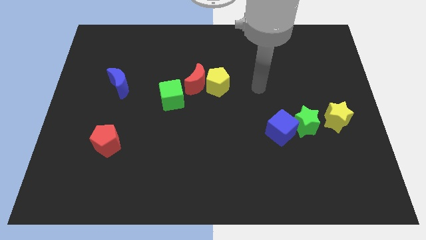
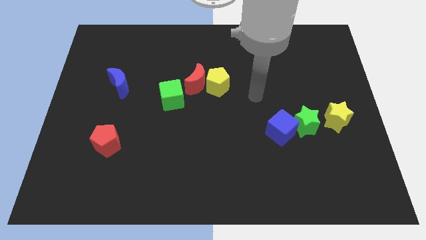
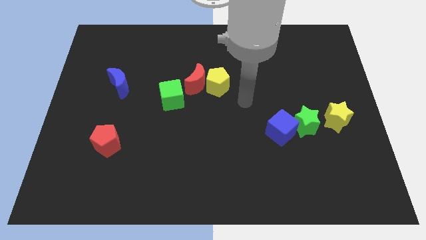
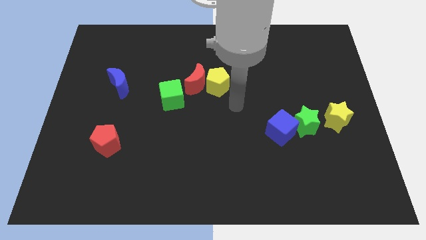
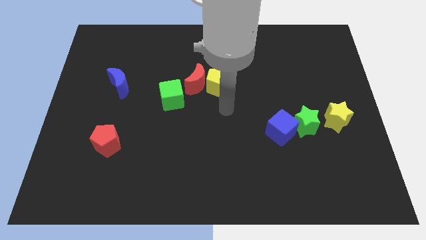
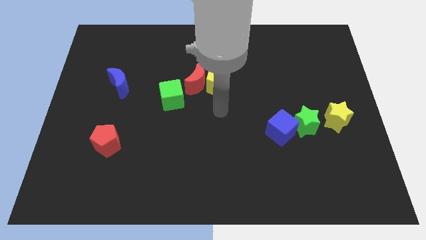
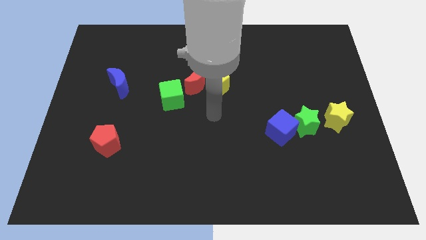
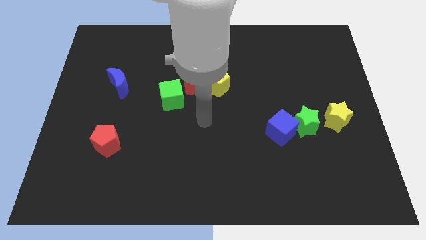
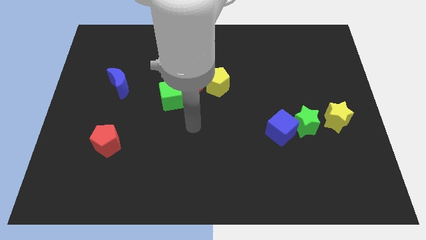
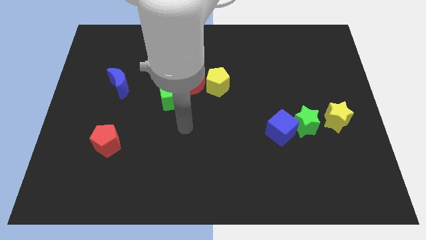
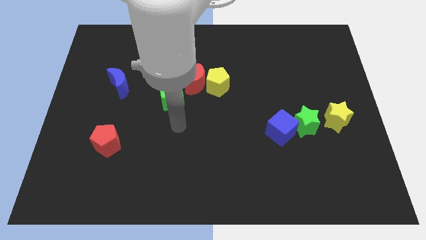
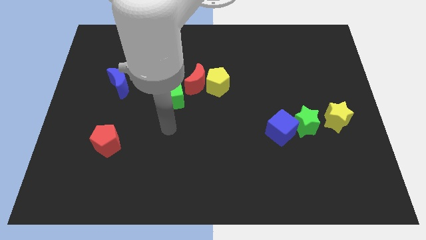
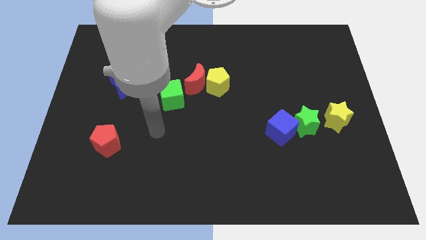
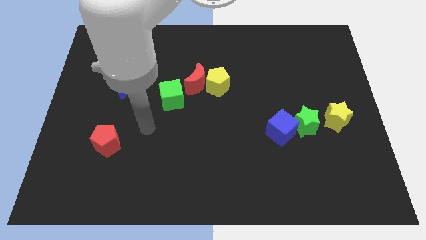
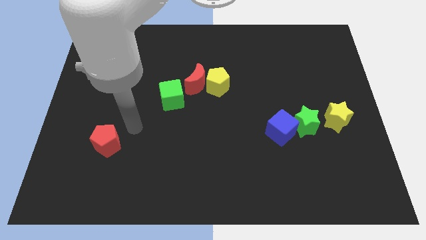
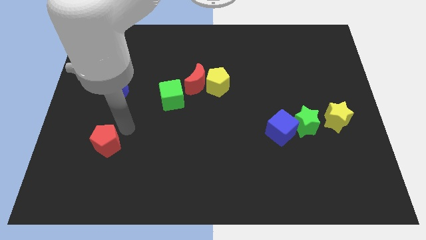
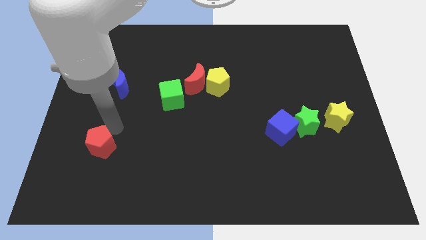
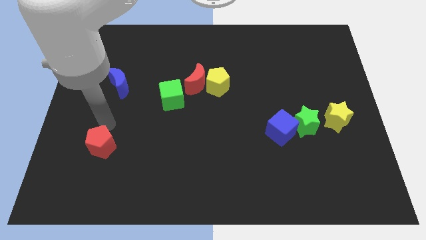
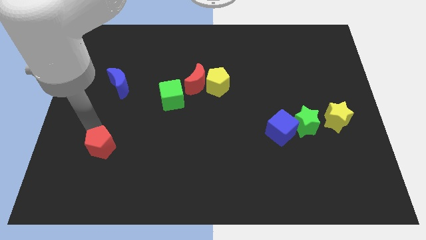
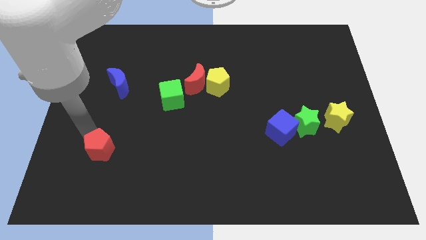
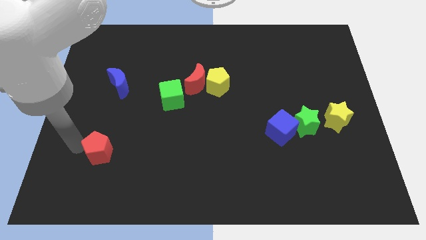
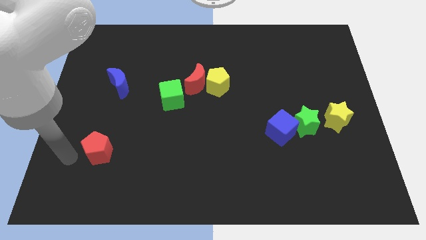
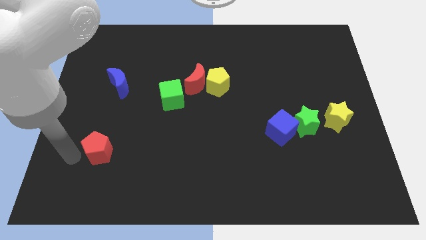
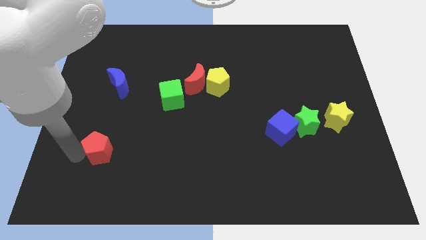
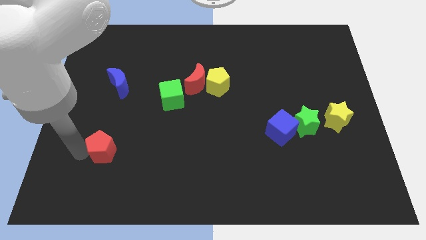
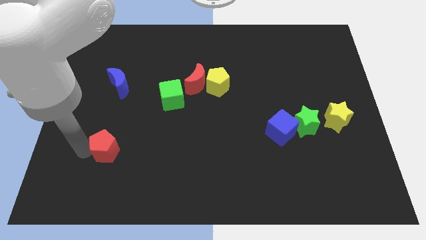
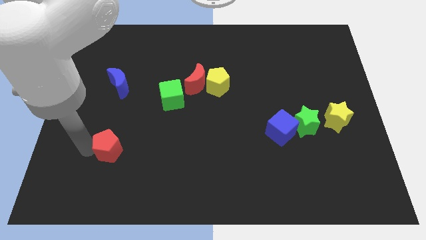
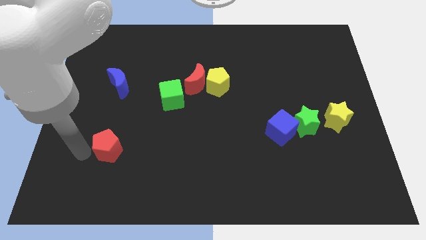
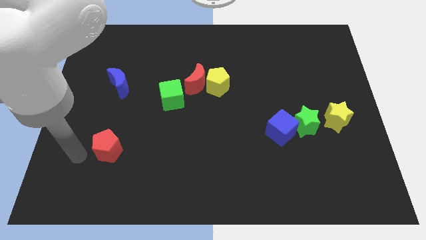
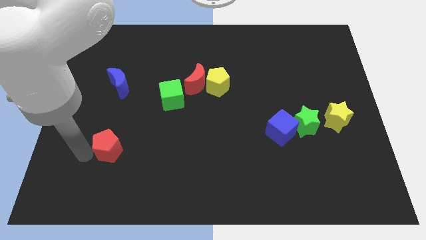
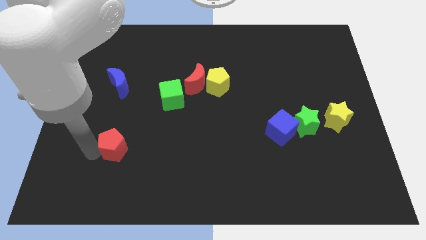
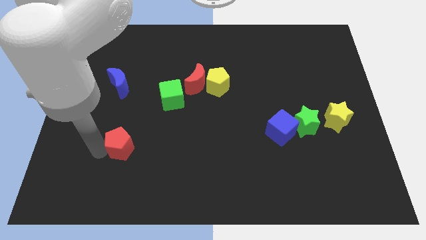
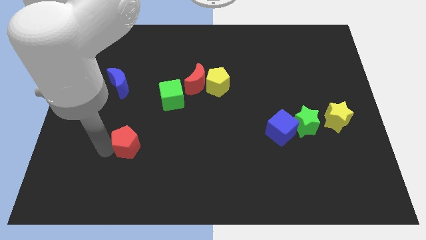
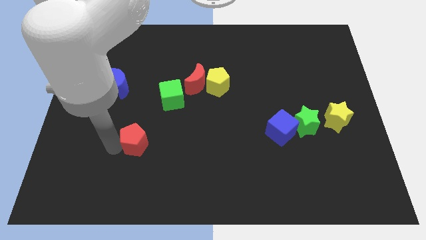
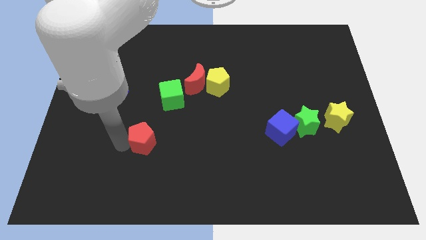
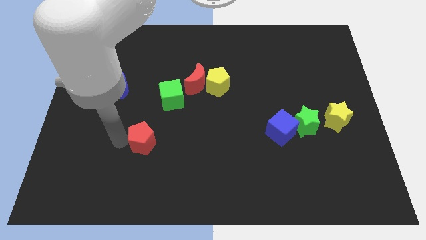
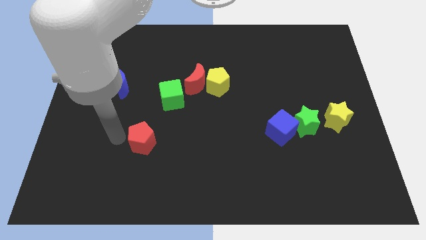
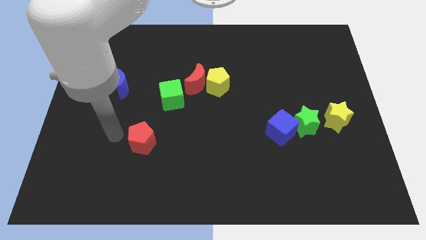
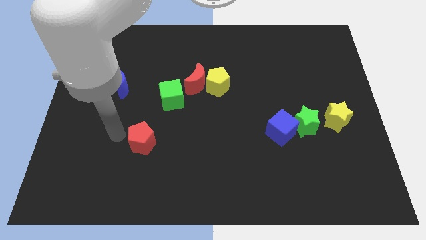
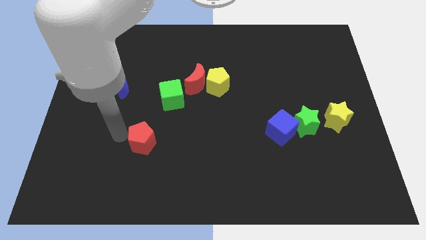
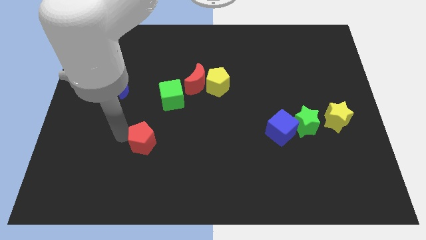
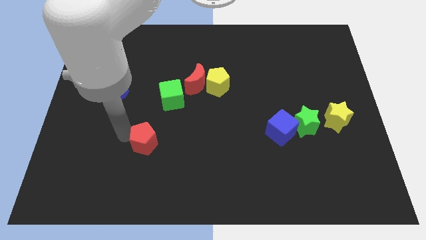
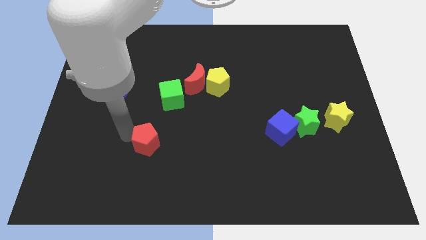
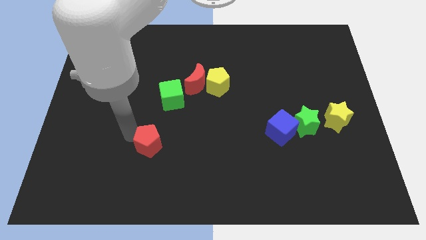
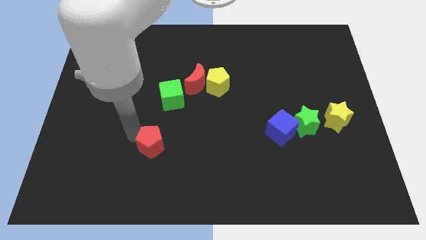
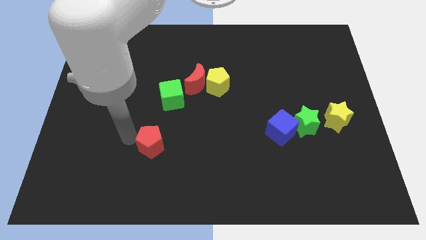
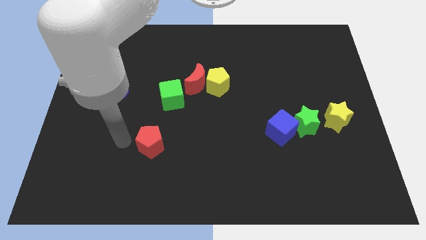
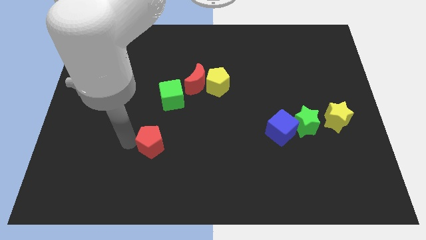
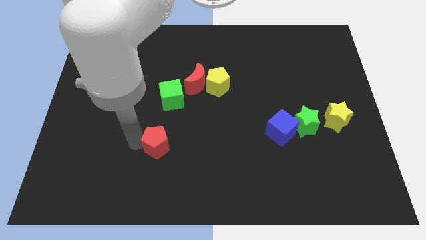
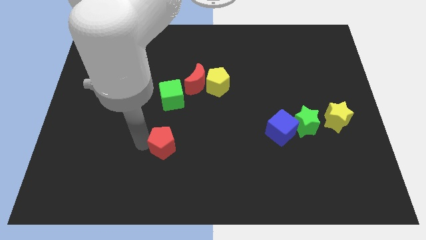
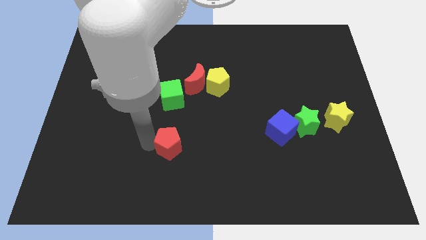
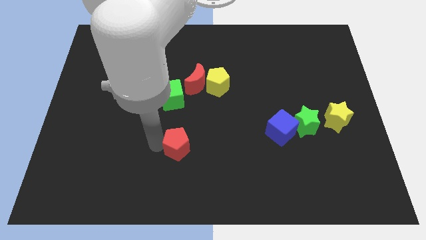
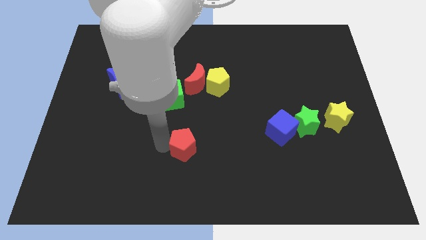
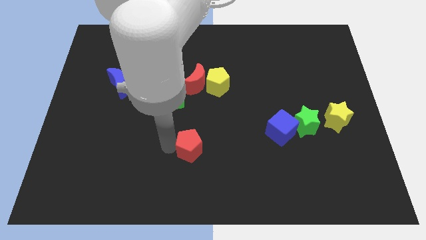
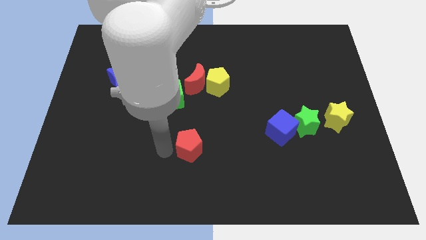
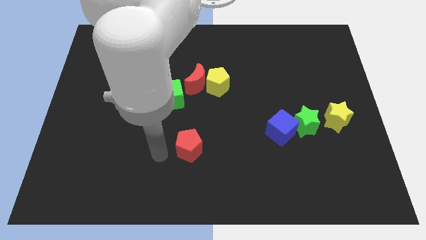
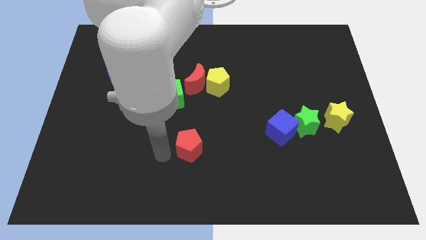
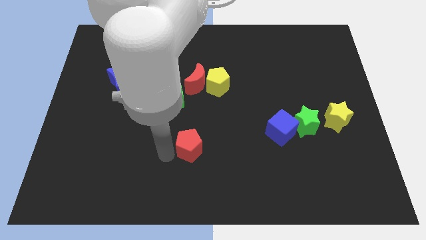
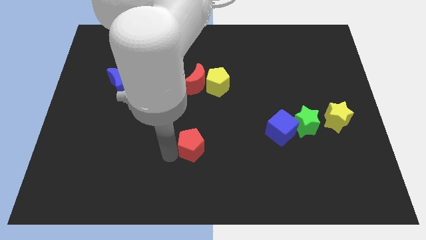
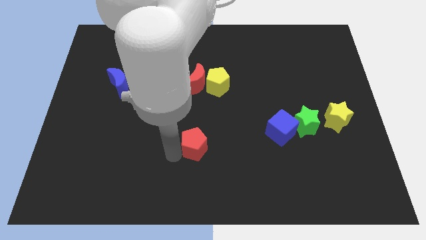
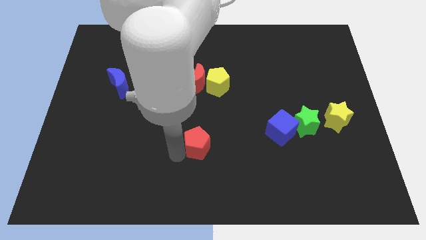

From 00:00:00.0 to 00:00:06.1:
slide the red pentagon to the right

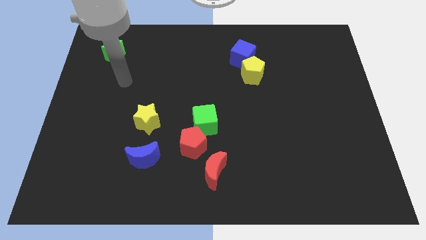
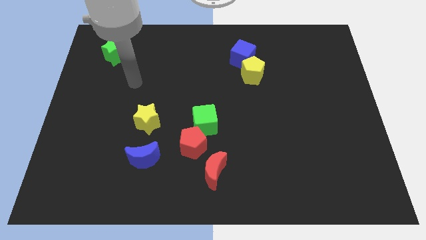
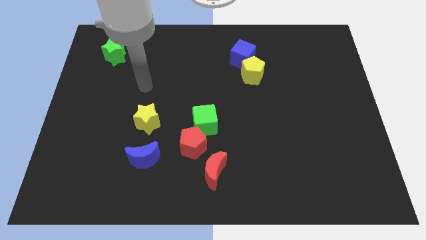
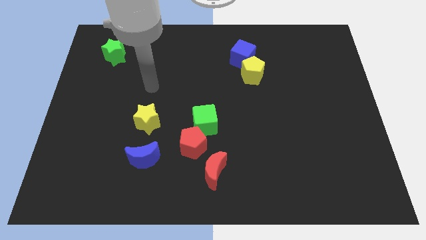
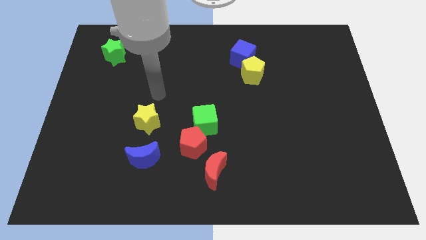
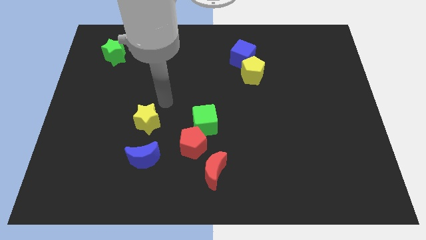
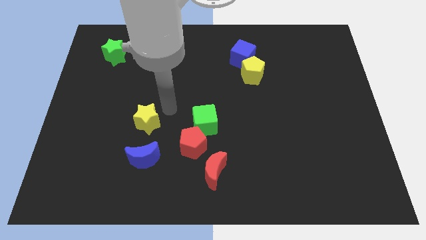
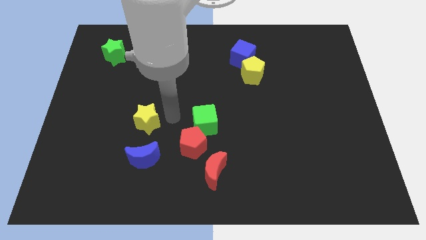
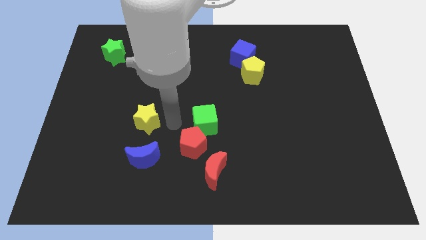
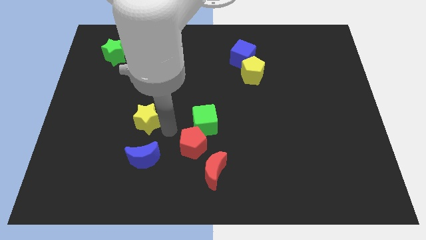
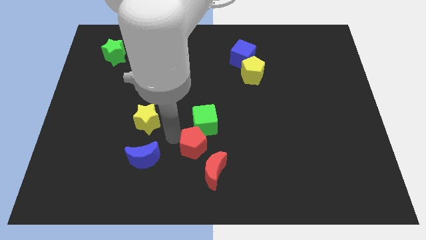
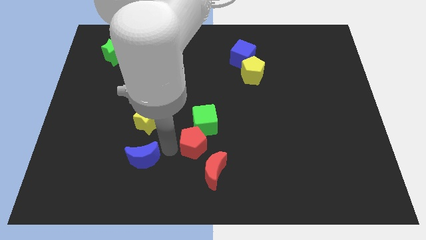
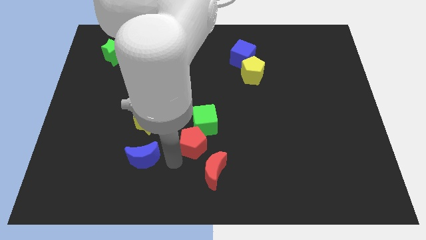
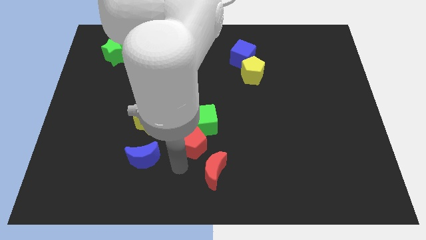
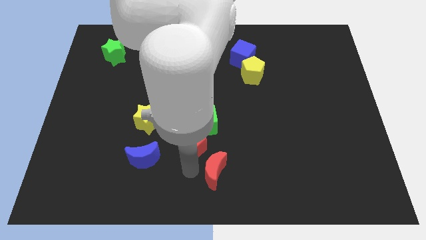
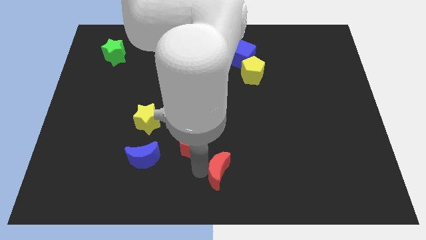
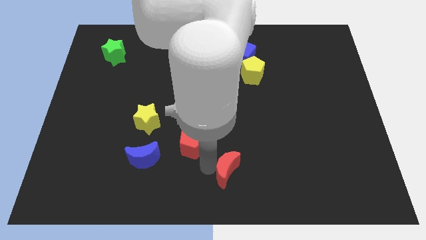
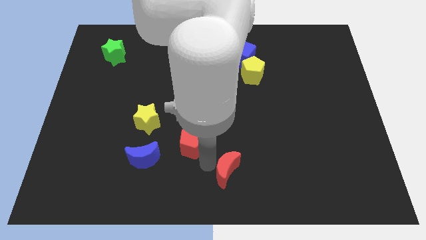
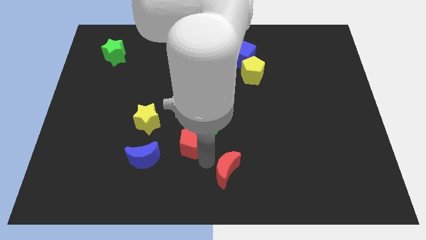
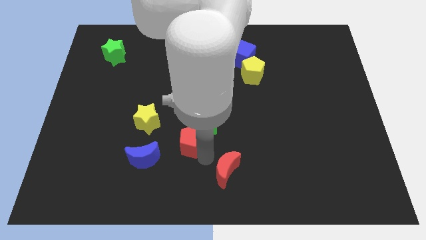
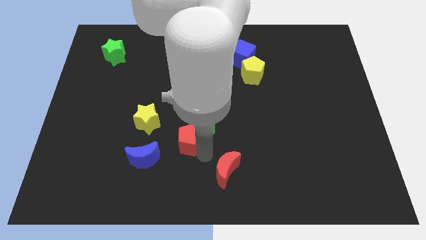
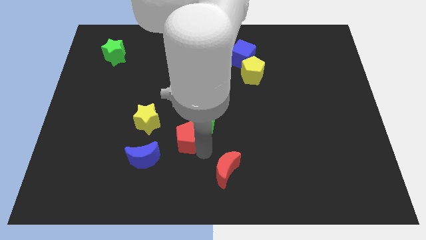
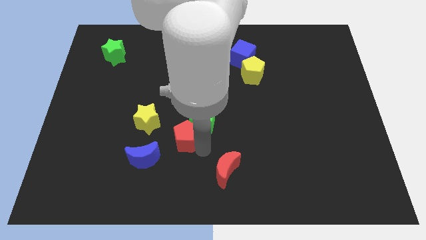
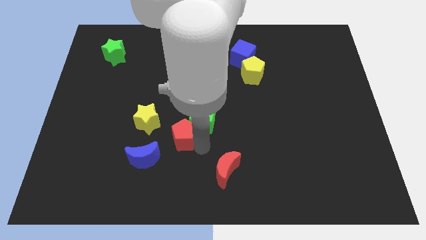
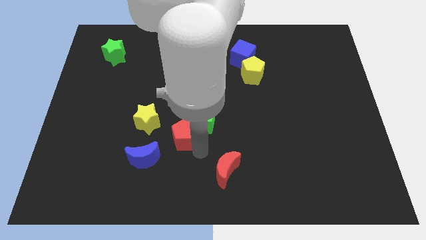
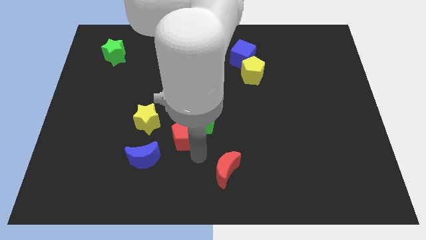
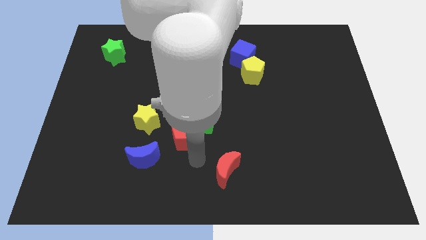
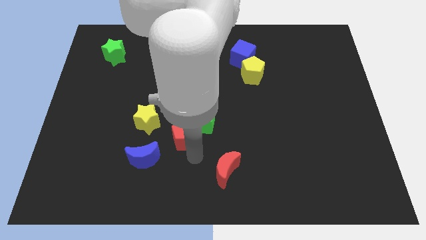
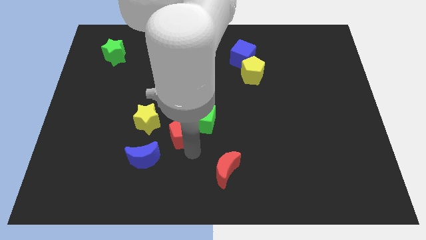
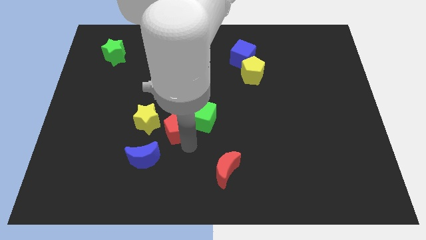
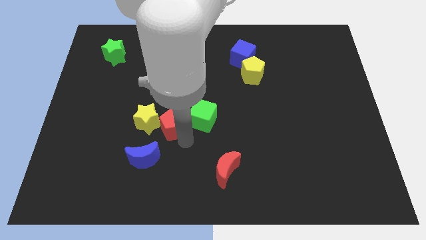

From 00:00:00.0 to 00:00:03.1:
move the red pentagon diagonally up and to the left a little bit
